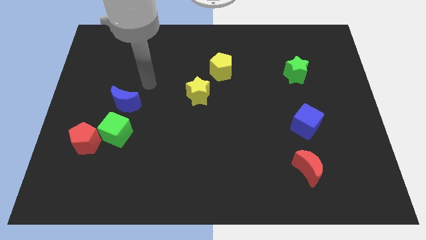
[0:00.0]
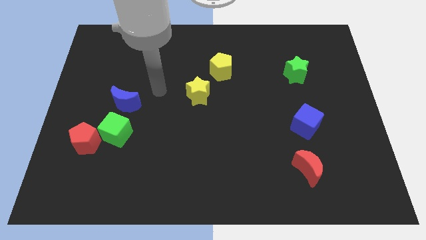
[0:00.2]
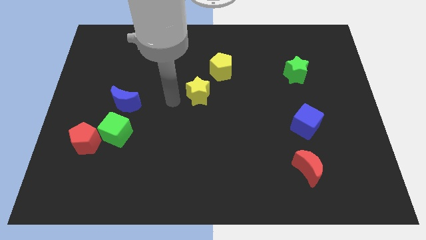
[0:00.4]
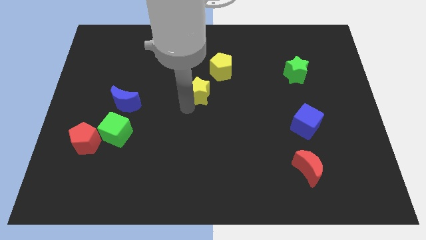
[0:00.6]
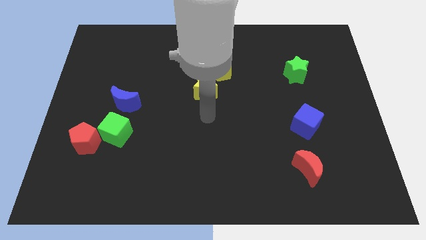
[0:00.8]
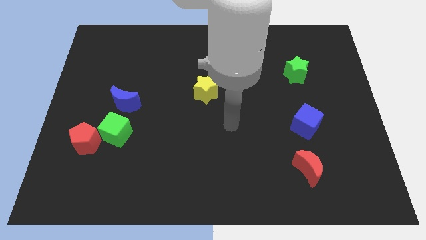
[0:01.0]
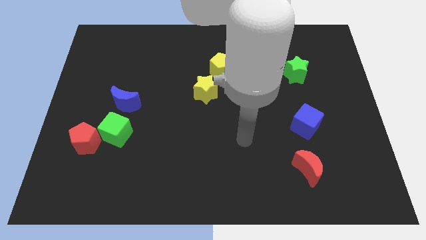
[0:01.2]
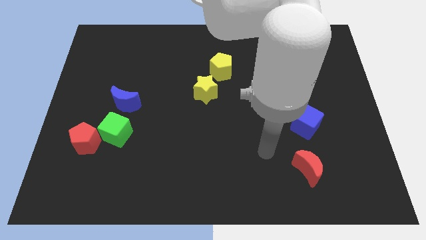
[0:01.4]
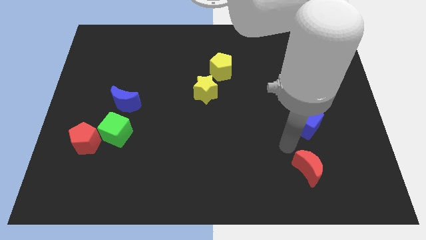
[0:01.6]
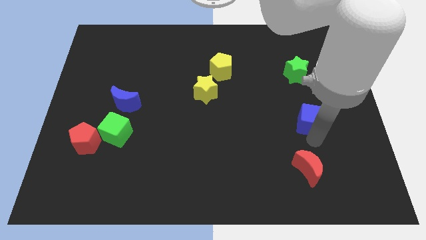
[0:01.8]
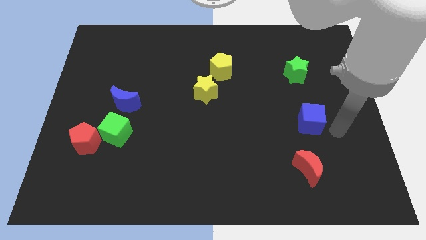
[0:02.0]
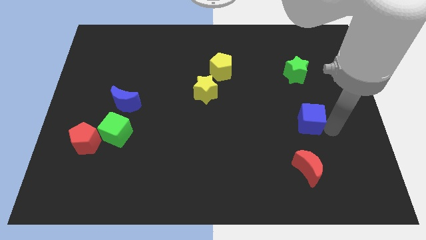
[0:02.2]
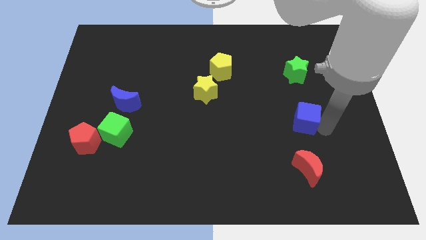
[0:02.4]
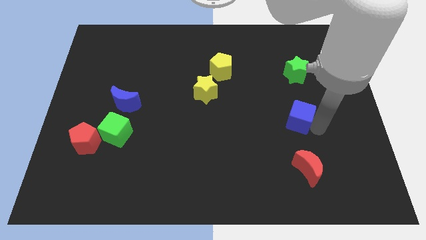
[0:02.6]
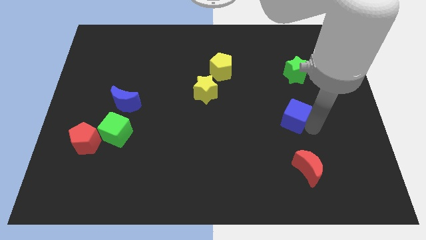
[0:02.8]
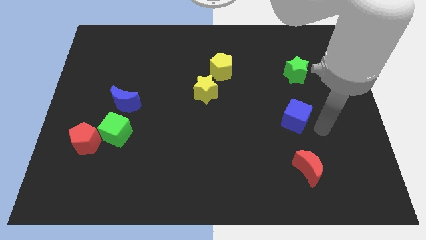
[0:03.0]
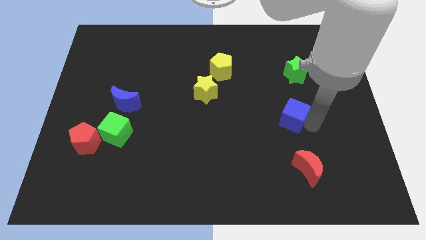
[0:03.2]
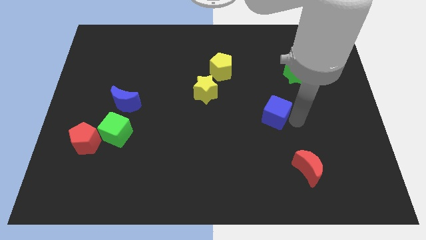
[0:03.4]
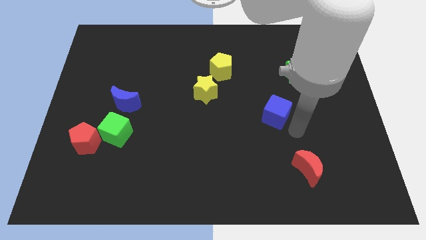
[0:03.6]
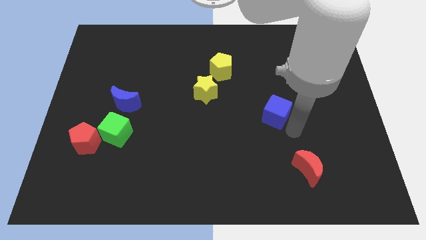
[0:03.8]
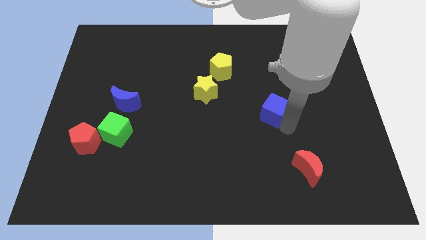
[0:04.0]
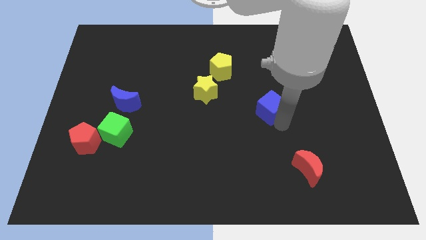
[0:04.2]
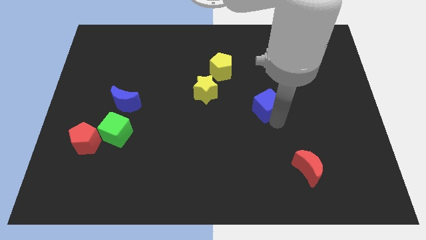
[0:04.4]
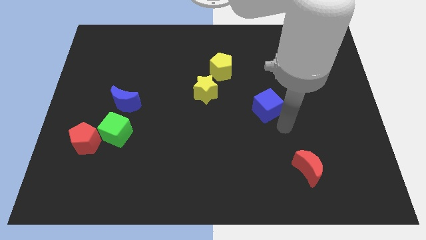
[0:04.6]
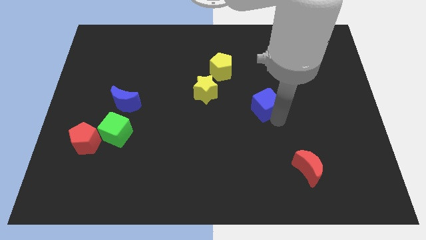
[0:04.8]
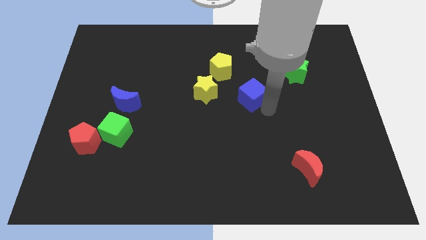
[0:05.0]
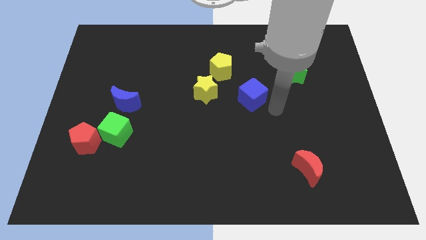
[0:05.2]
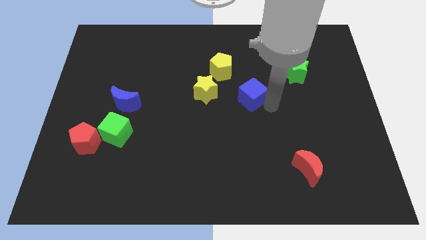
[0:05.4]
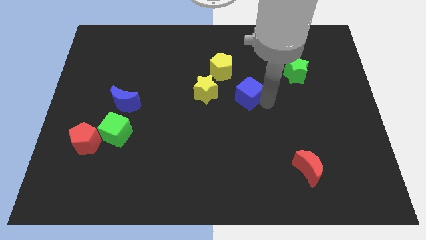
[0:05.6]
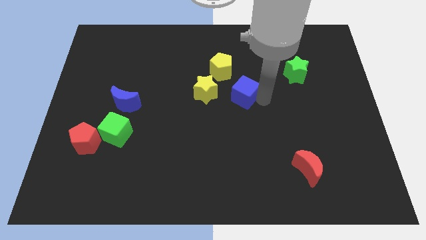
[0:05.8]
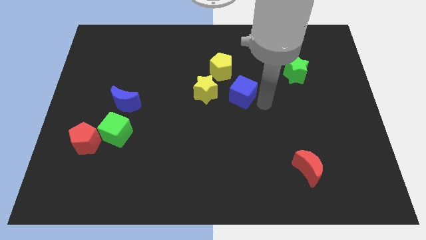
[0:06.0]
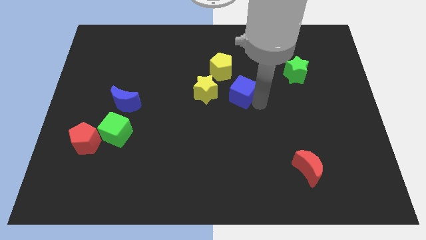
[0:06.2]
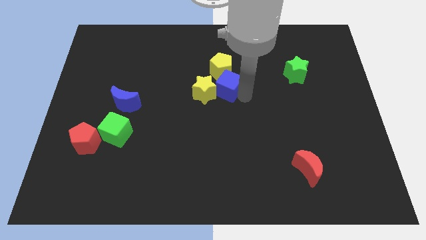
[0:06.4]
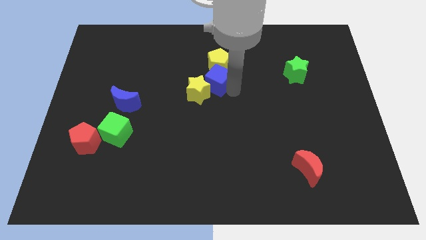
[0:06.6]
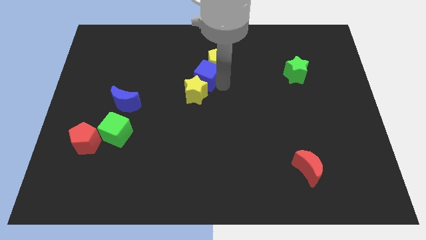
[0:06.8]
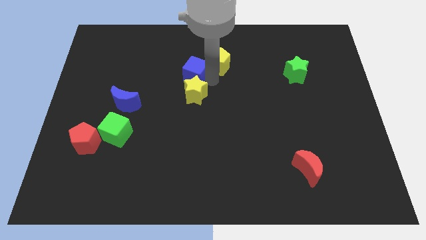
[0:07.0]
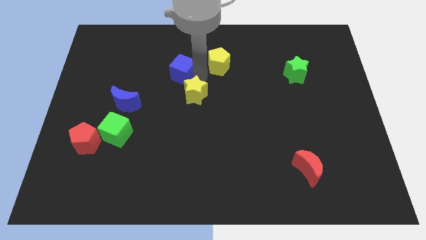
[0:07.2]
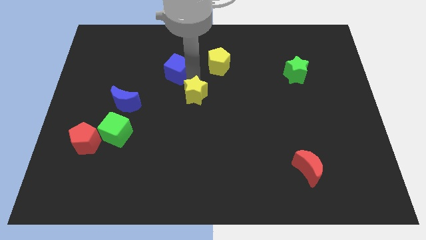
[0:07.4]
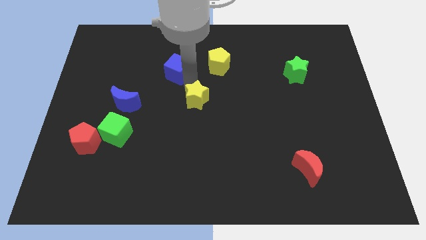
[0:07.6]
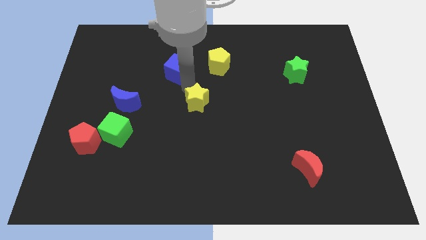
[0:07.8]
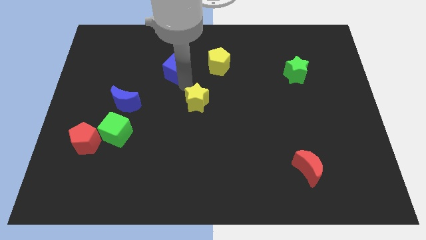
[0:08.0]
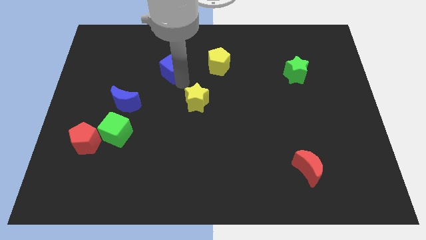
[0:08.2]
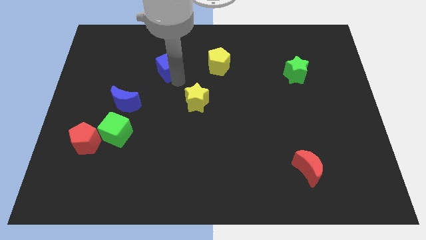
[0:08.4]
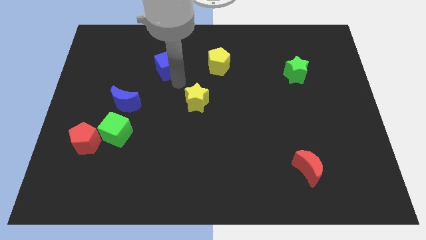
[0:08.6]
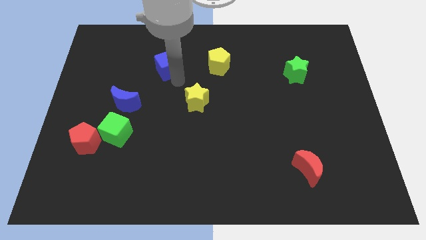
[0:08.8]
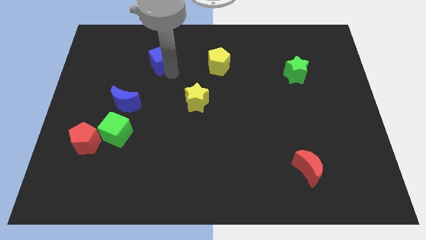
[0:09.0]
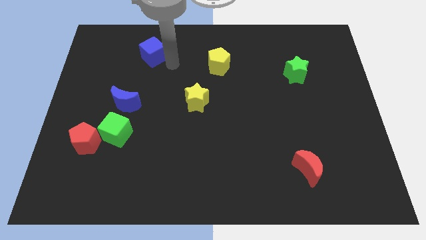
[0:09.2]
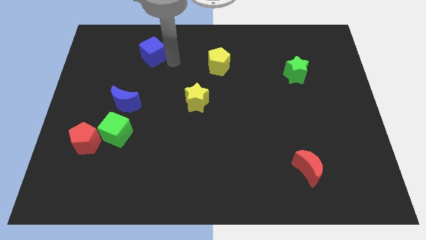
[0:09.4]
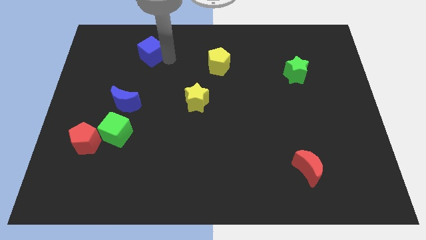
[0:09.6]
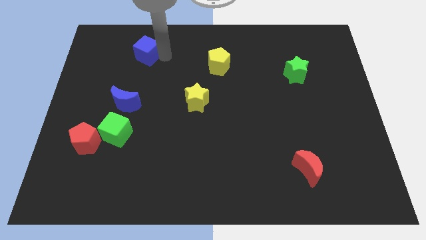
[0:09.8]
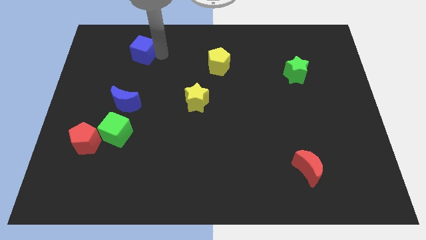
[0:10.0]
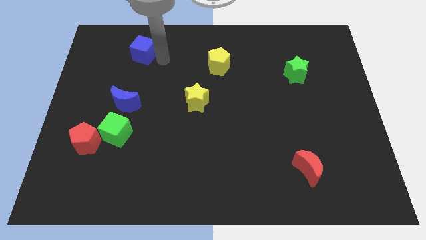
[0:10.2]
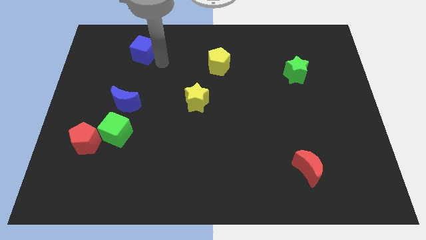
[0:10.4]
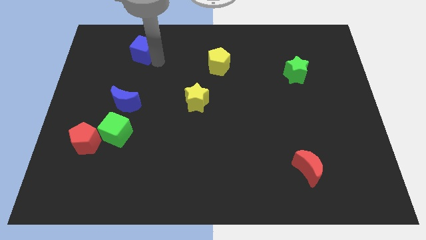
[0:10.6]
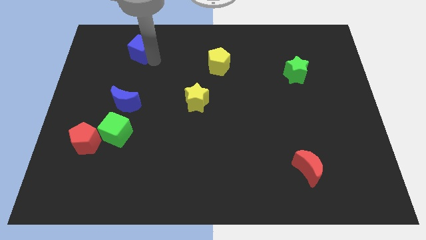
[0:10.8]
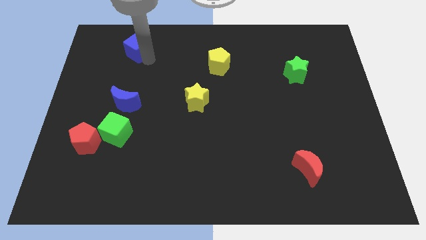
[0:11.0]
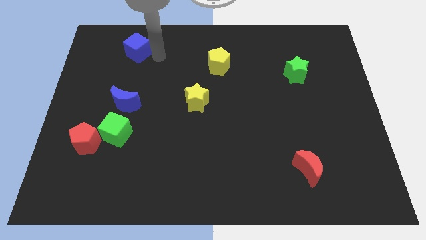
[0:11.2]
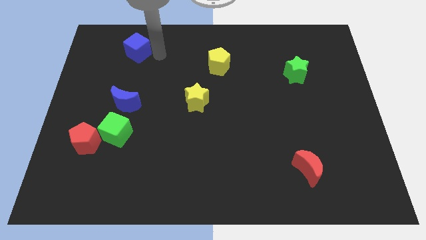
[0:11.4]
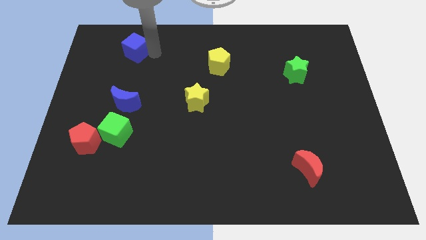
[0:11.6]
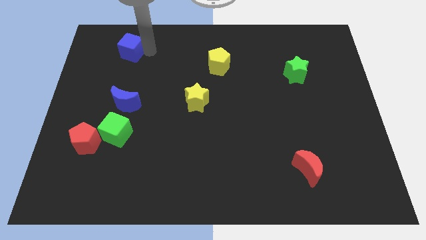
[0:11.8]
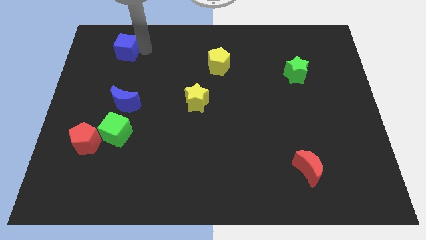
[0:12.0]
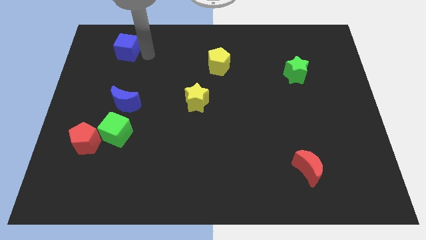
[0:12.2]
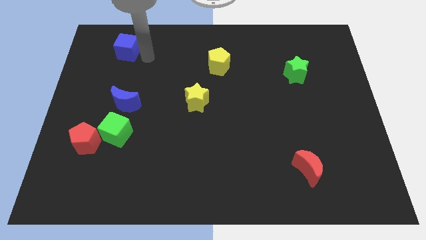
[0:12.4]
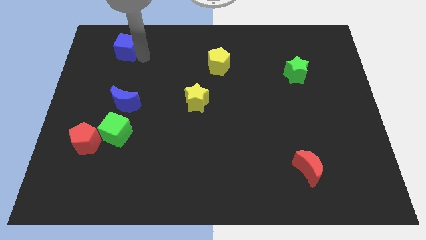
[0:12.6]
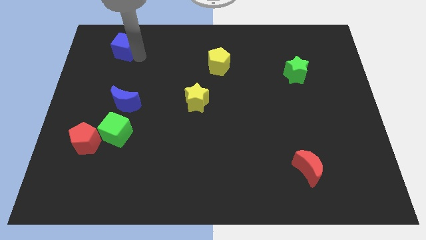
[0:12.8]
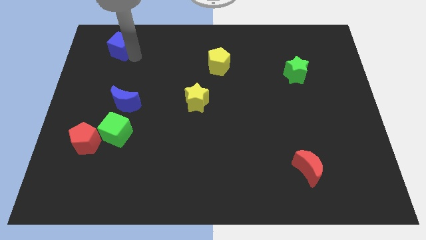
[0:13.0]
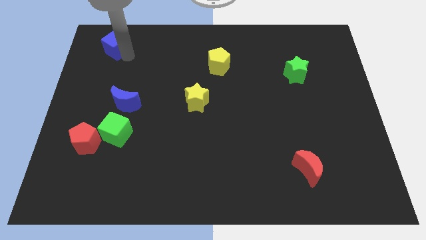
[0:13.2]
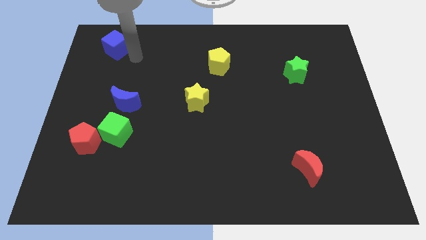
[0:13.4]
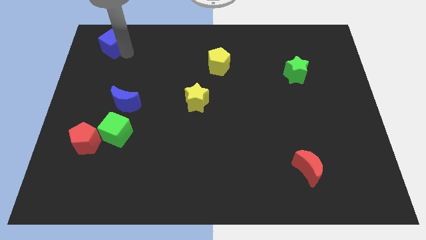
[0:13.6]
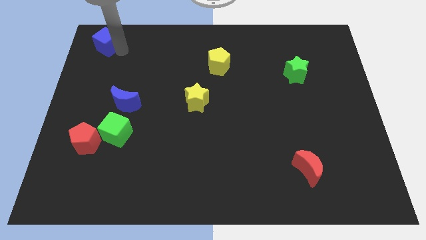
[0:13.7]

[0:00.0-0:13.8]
push the blue cube to the top left corner
